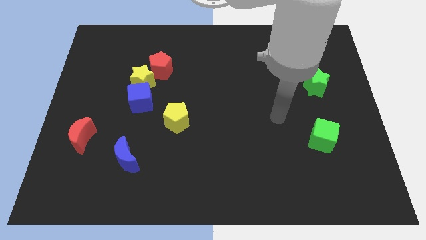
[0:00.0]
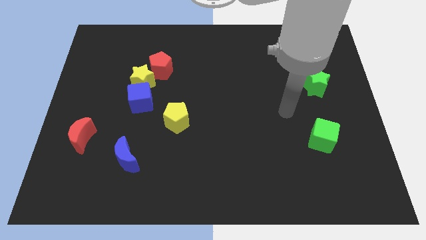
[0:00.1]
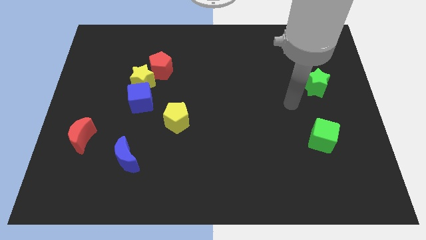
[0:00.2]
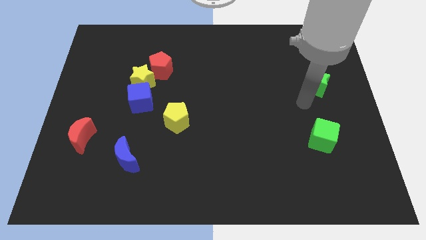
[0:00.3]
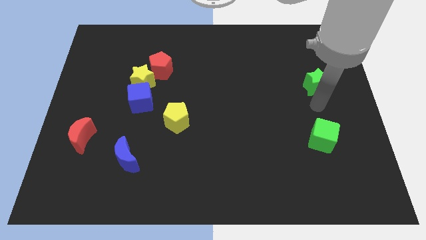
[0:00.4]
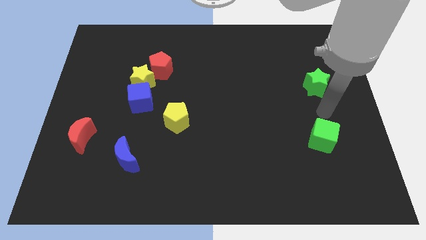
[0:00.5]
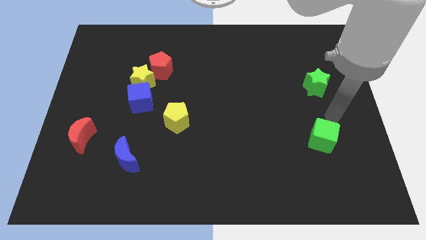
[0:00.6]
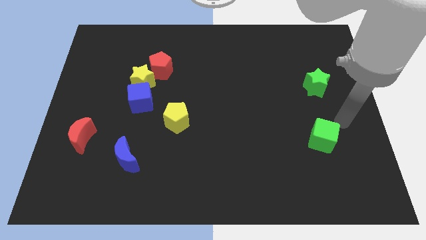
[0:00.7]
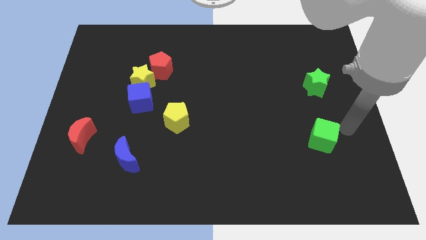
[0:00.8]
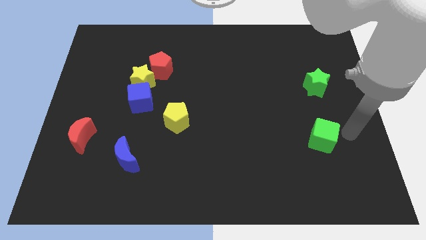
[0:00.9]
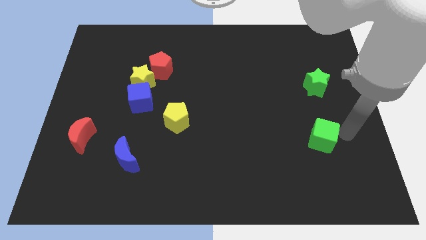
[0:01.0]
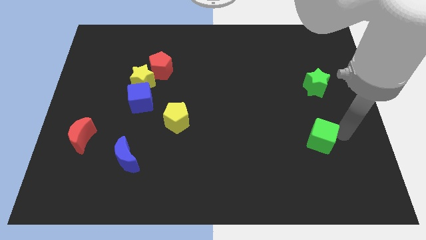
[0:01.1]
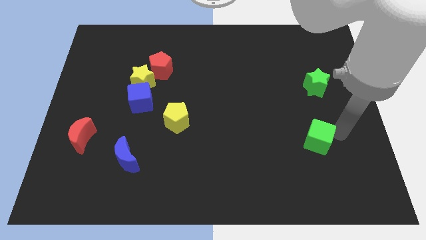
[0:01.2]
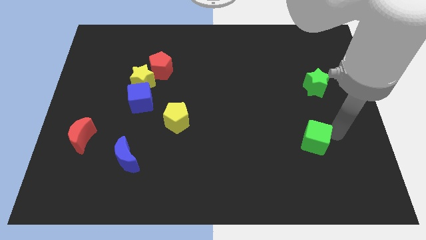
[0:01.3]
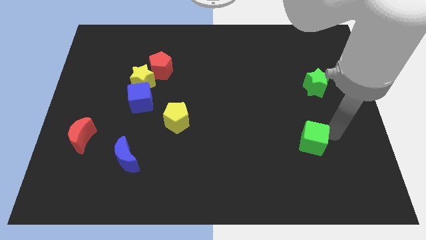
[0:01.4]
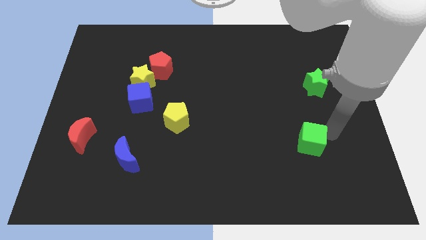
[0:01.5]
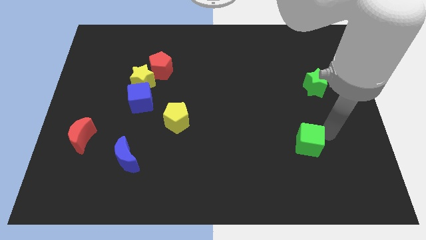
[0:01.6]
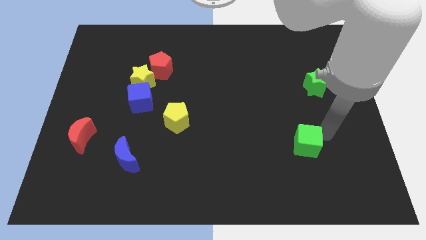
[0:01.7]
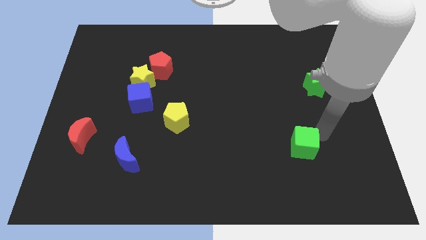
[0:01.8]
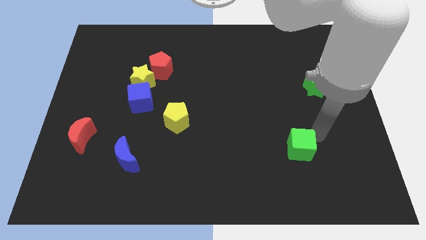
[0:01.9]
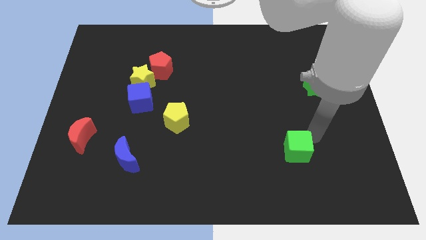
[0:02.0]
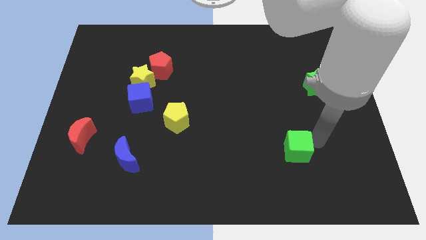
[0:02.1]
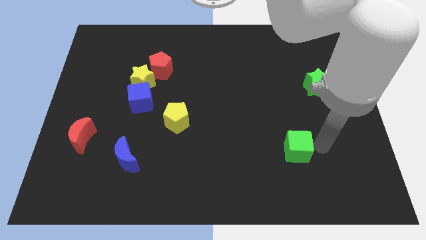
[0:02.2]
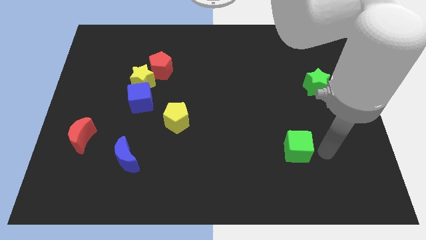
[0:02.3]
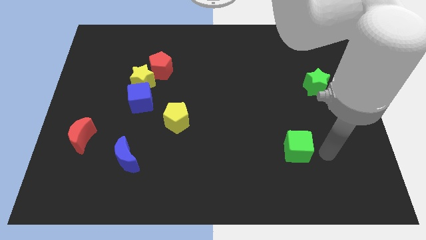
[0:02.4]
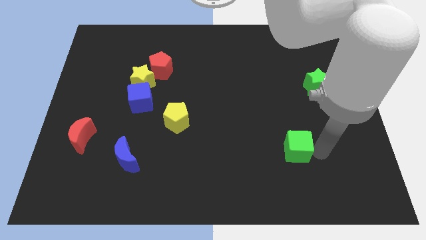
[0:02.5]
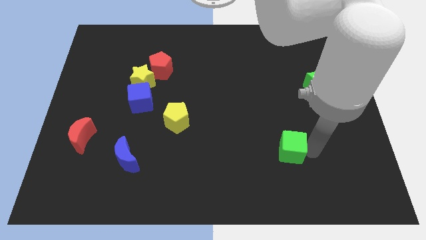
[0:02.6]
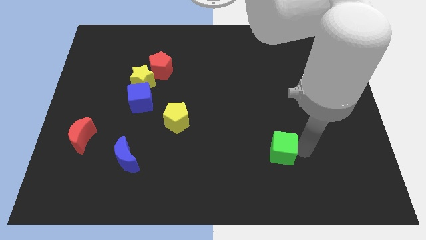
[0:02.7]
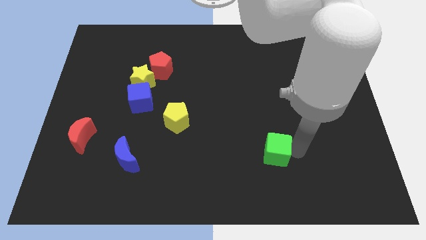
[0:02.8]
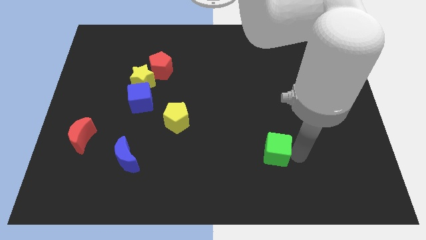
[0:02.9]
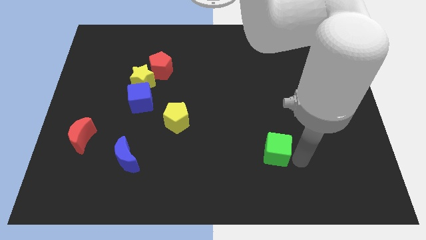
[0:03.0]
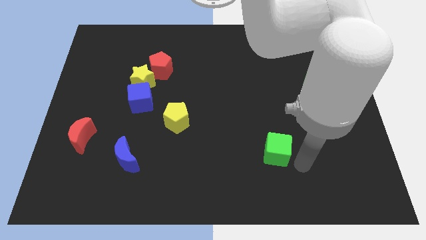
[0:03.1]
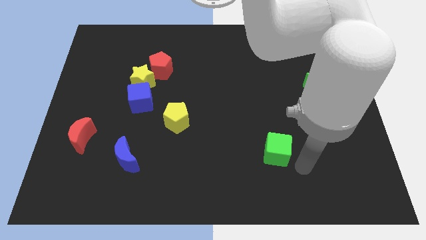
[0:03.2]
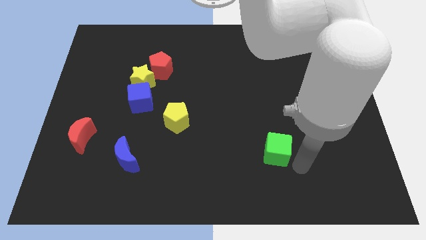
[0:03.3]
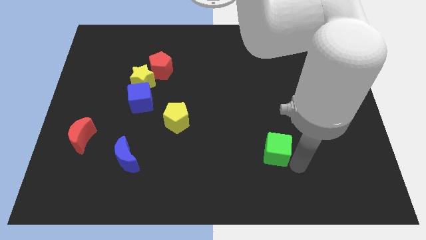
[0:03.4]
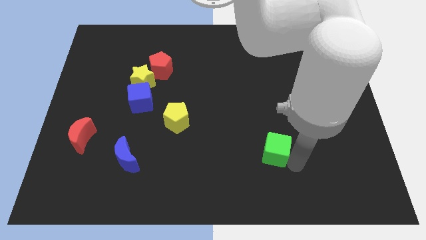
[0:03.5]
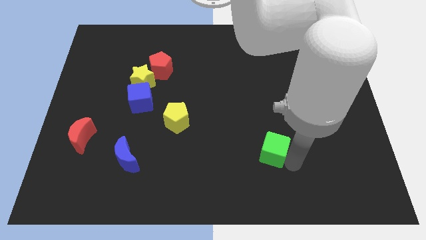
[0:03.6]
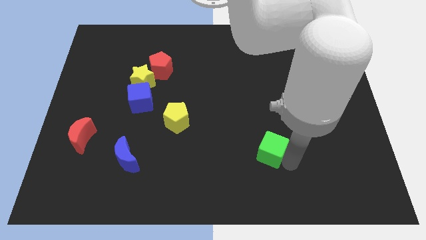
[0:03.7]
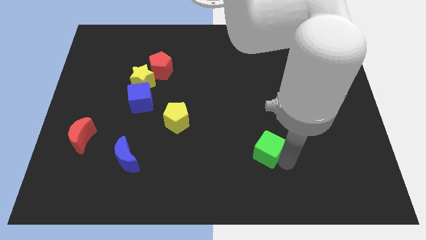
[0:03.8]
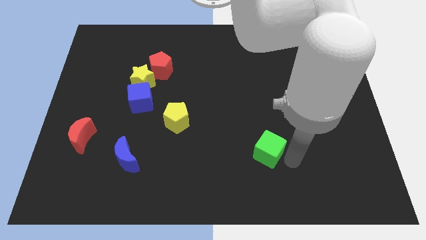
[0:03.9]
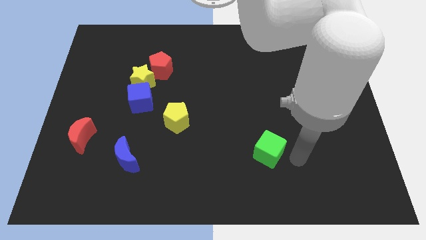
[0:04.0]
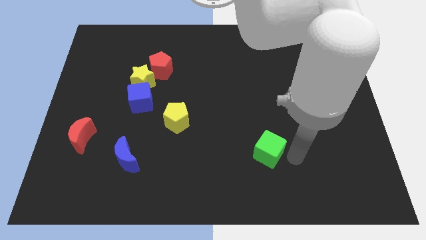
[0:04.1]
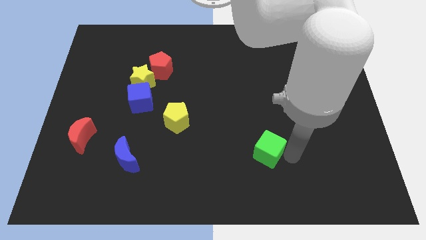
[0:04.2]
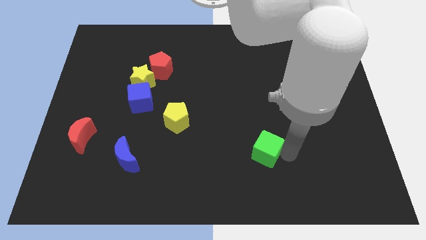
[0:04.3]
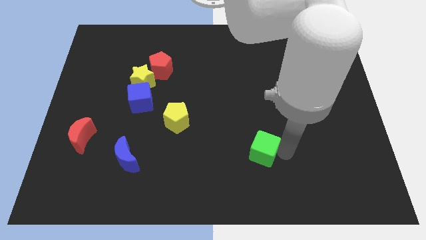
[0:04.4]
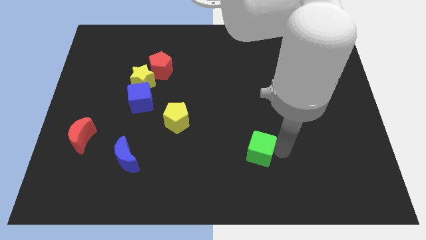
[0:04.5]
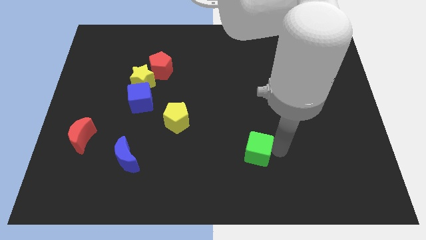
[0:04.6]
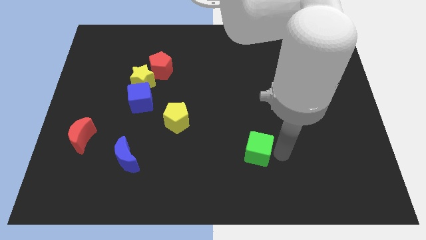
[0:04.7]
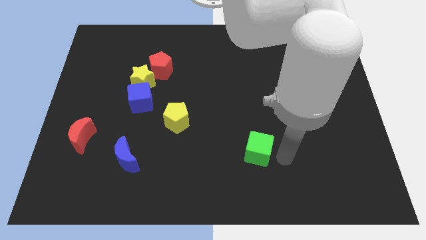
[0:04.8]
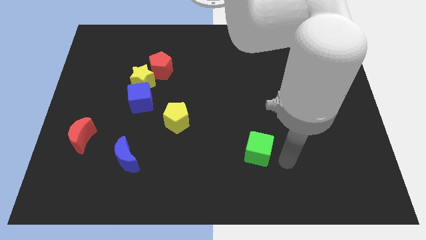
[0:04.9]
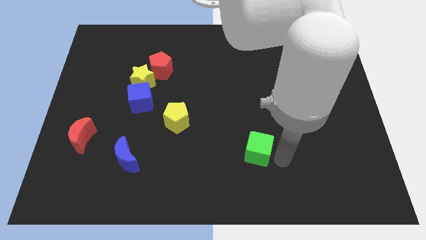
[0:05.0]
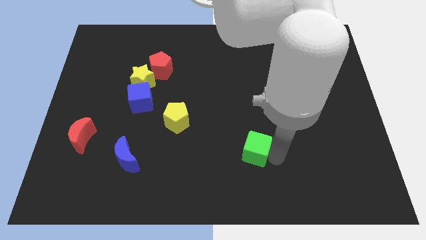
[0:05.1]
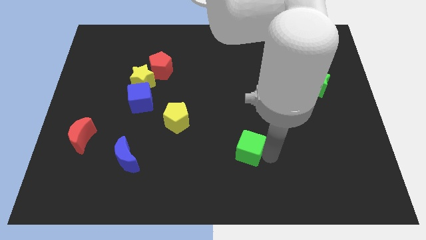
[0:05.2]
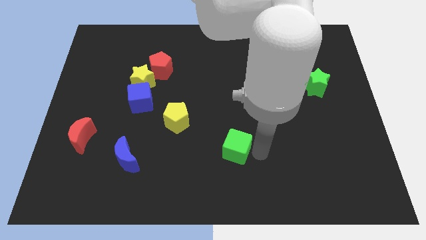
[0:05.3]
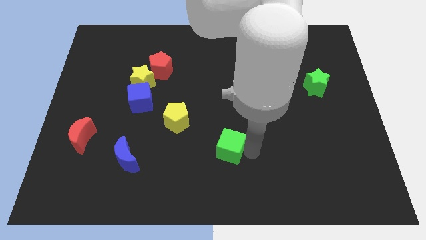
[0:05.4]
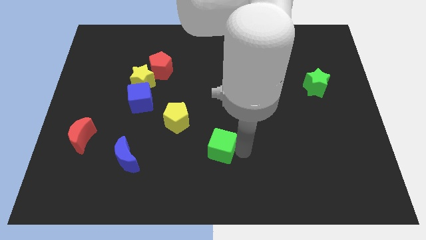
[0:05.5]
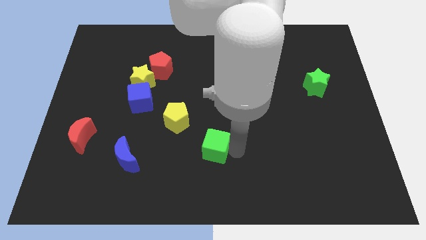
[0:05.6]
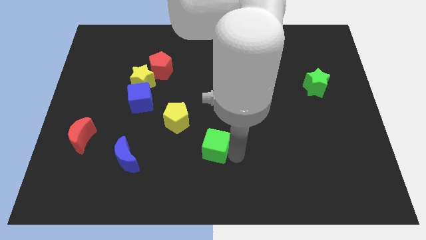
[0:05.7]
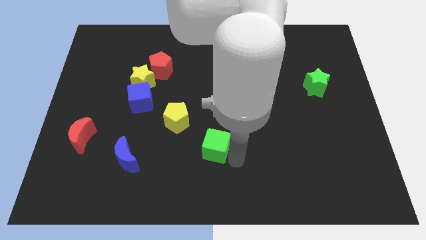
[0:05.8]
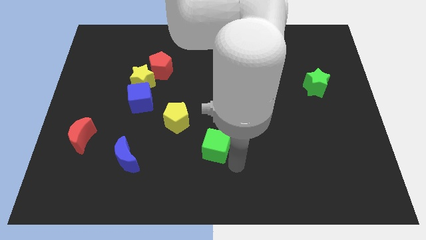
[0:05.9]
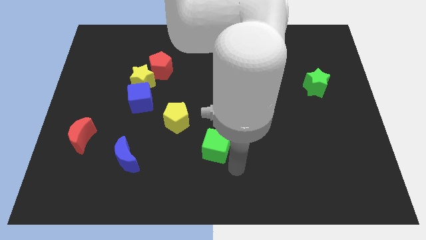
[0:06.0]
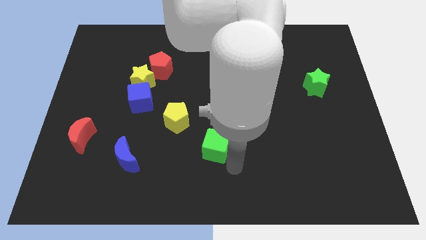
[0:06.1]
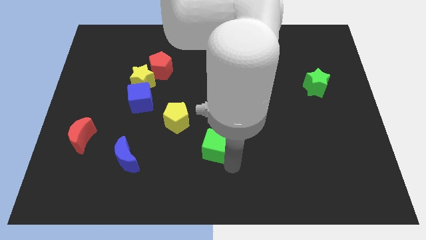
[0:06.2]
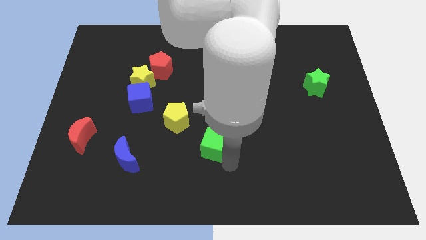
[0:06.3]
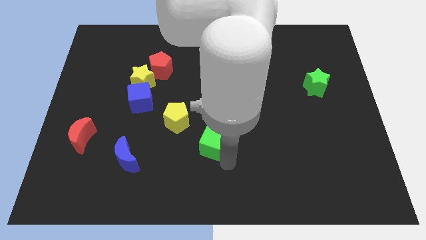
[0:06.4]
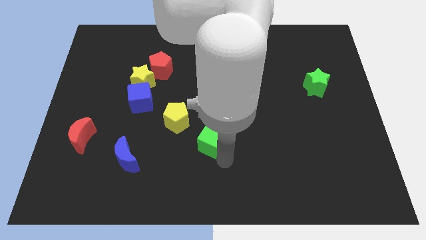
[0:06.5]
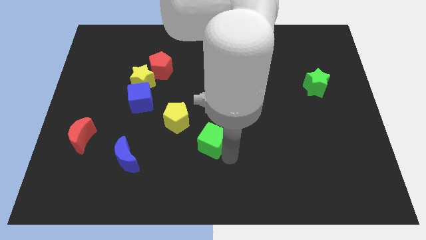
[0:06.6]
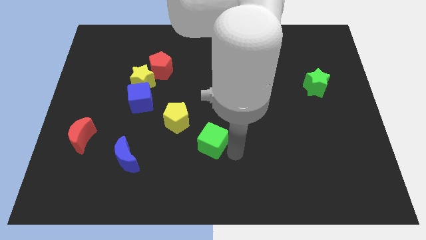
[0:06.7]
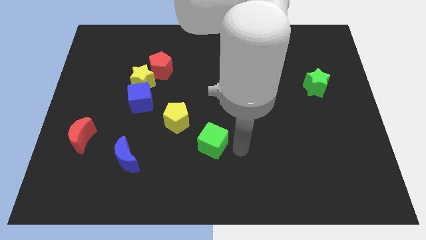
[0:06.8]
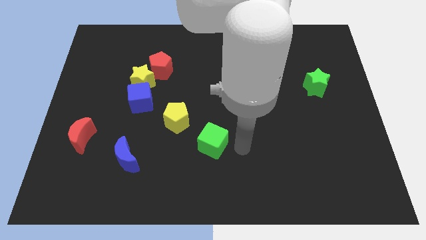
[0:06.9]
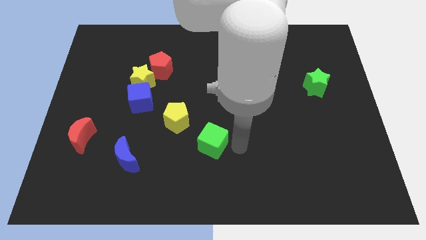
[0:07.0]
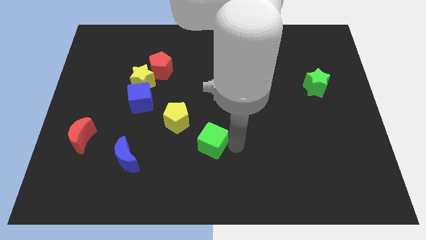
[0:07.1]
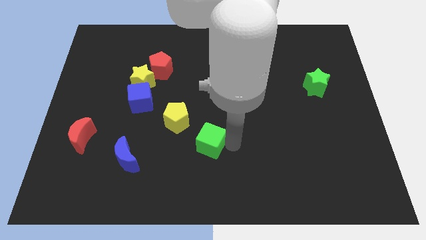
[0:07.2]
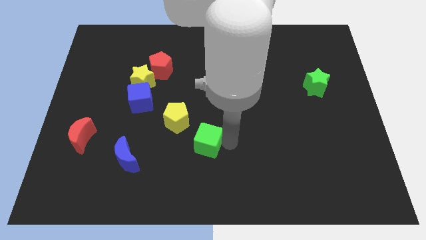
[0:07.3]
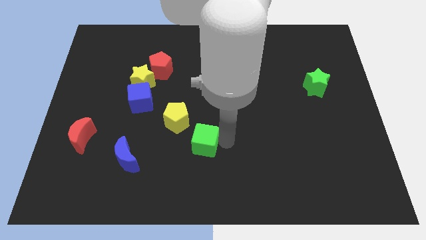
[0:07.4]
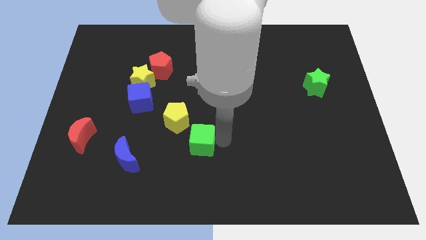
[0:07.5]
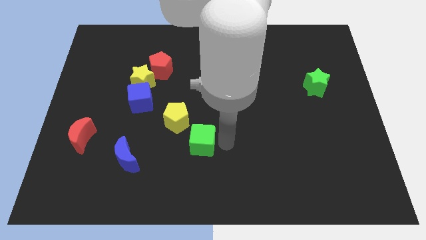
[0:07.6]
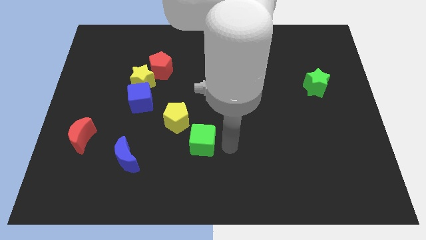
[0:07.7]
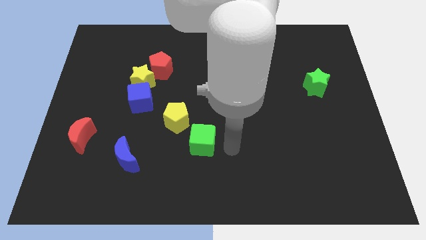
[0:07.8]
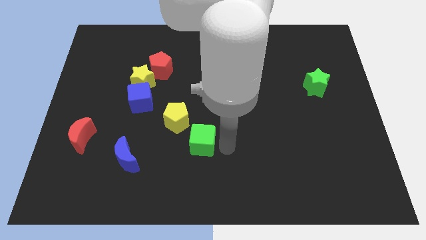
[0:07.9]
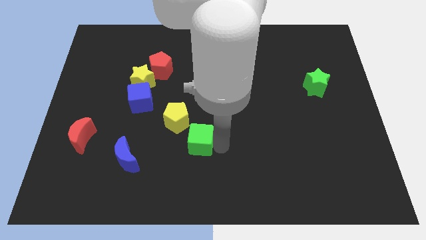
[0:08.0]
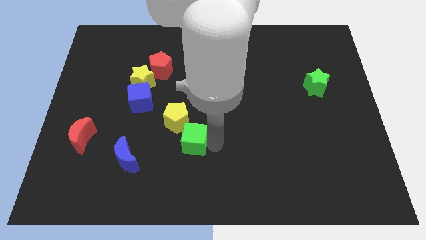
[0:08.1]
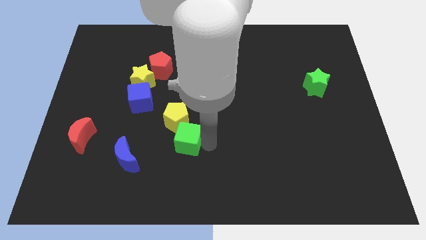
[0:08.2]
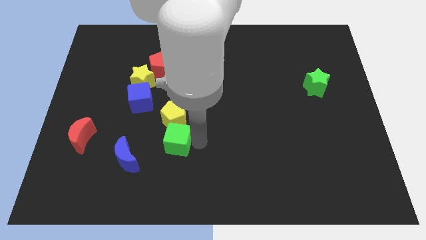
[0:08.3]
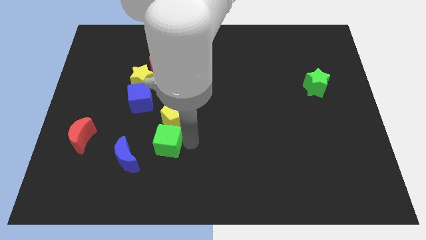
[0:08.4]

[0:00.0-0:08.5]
push the green cube to the bottom left side of the yellow pentagon
